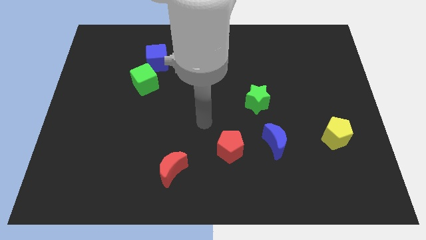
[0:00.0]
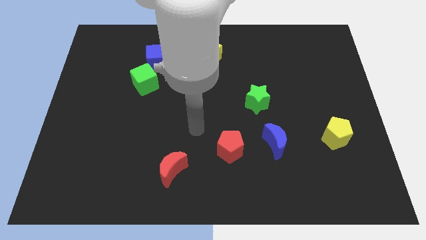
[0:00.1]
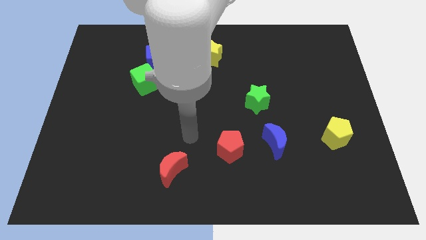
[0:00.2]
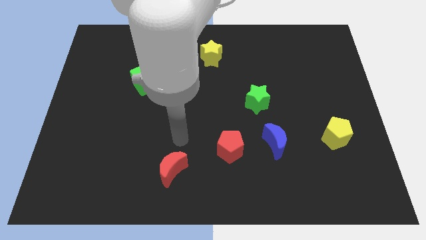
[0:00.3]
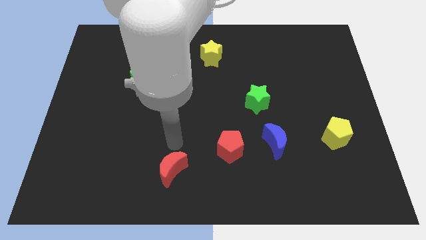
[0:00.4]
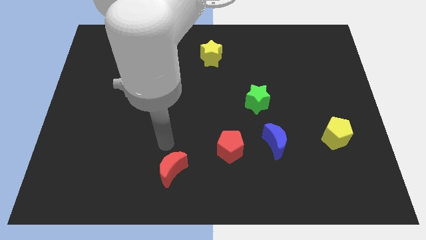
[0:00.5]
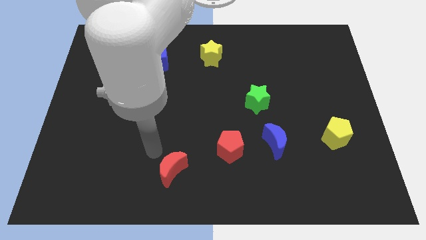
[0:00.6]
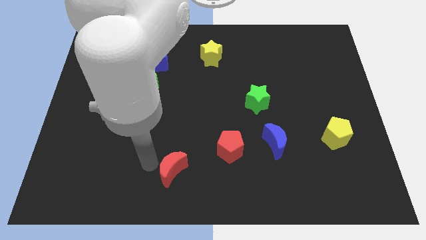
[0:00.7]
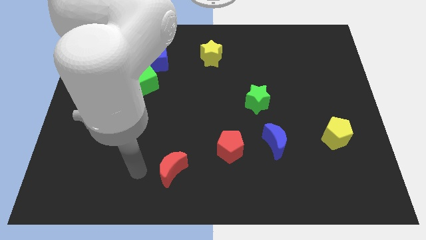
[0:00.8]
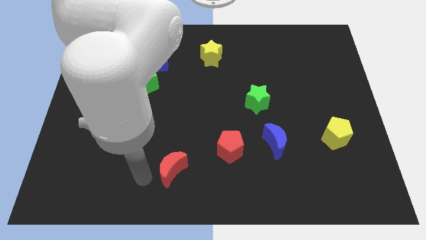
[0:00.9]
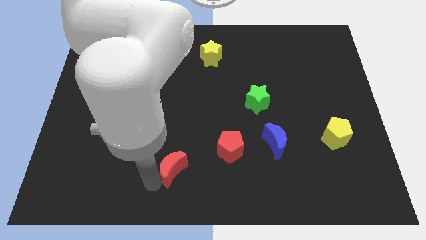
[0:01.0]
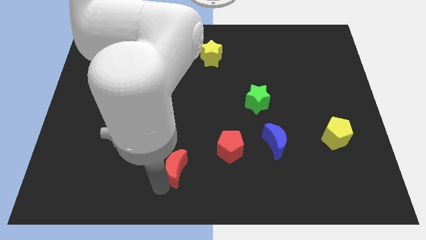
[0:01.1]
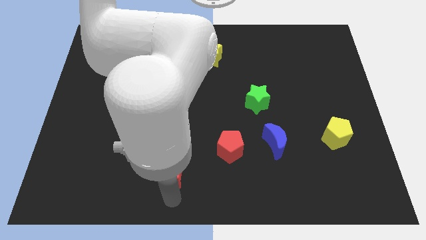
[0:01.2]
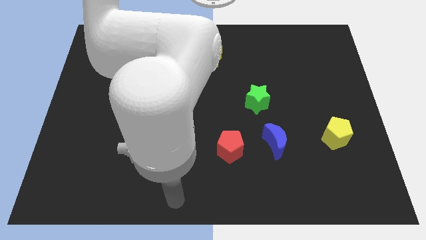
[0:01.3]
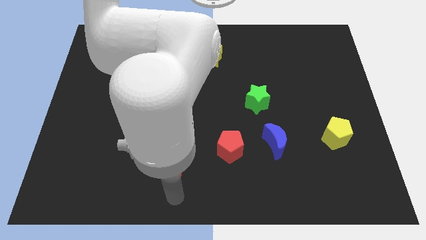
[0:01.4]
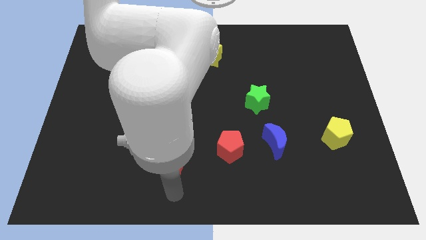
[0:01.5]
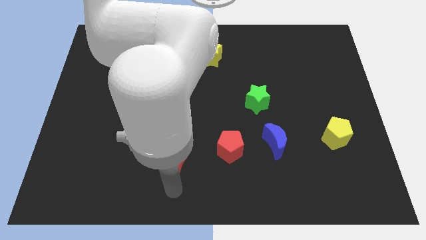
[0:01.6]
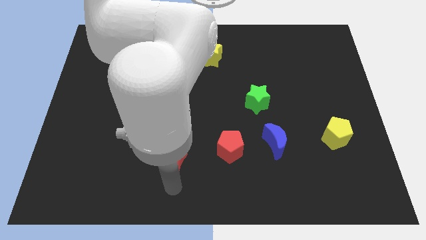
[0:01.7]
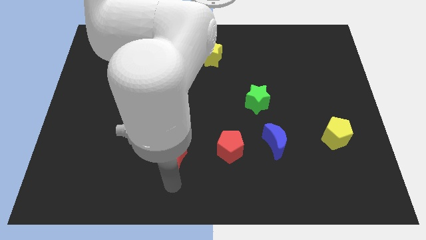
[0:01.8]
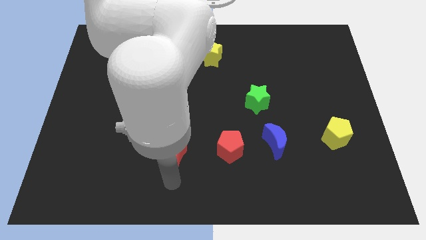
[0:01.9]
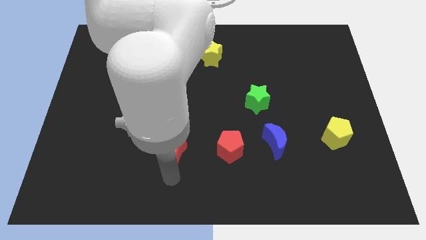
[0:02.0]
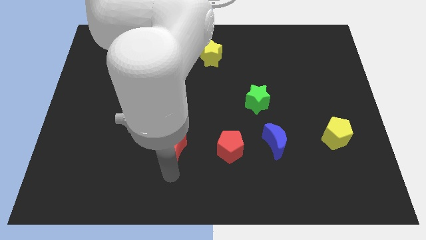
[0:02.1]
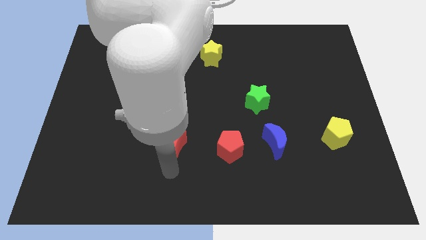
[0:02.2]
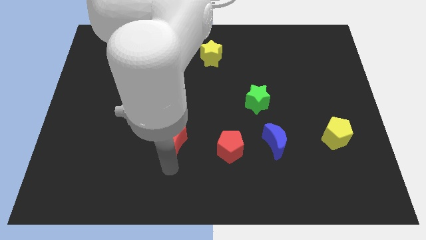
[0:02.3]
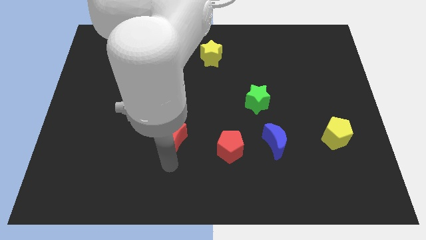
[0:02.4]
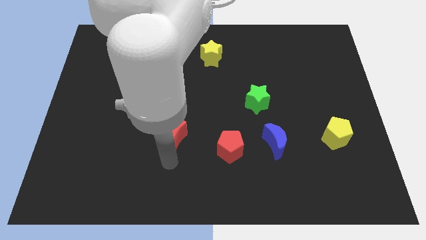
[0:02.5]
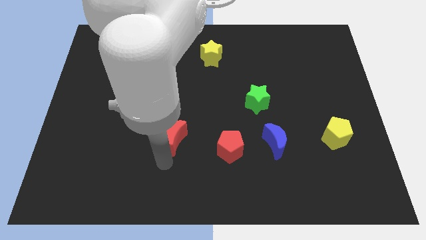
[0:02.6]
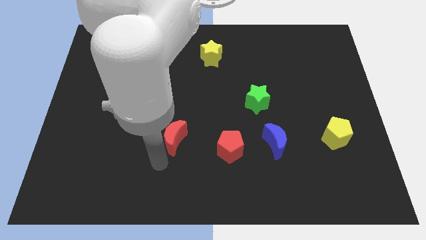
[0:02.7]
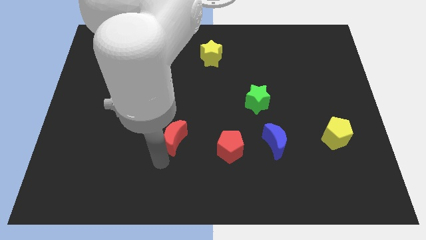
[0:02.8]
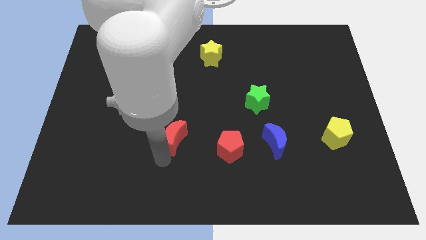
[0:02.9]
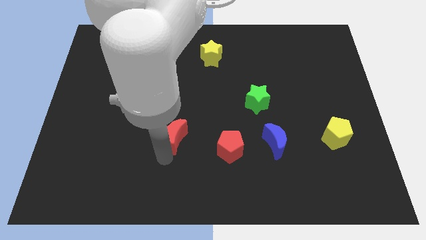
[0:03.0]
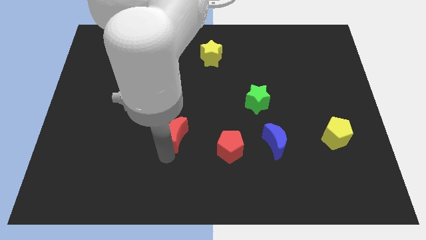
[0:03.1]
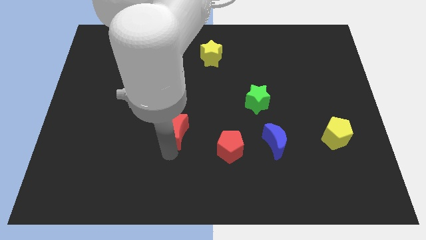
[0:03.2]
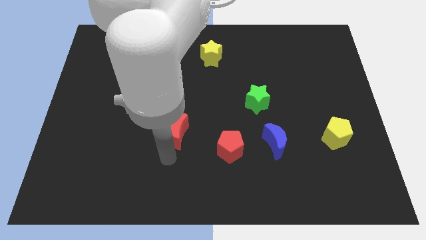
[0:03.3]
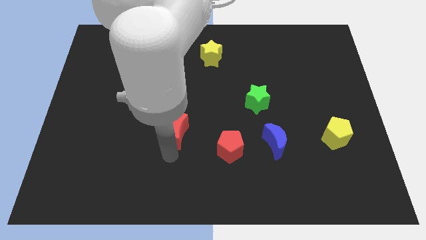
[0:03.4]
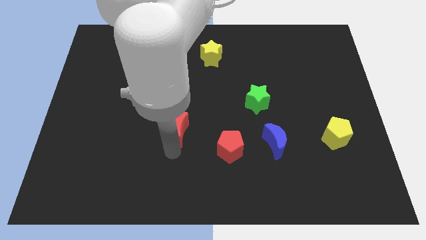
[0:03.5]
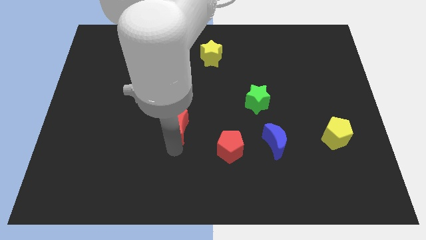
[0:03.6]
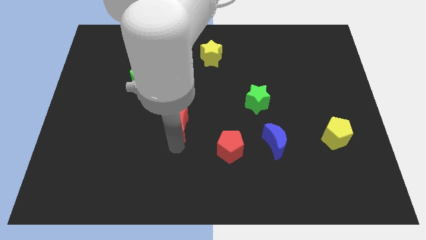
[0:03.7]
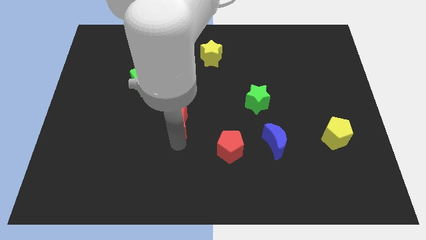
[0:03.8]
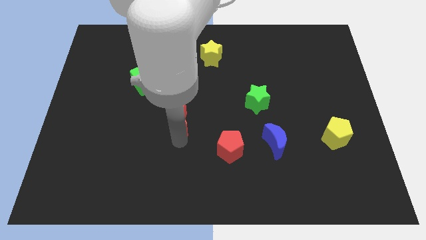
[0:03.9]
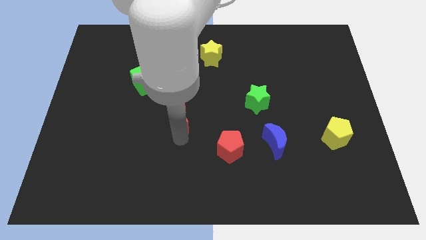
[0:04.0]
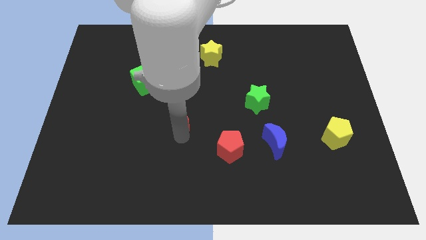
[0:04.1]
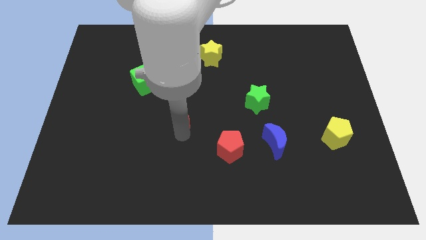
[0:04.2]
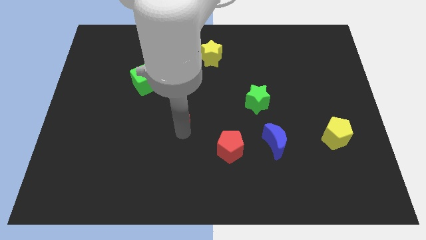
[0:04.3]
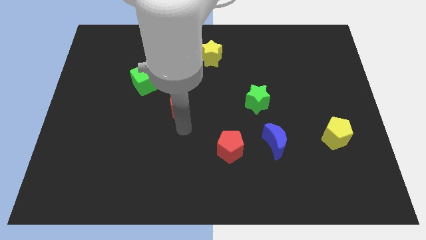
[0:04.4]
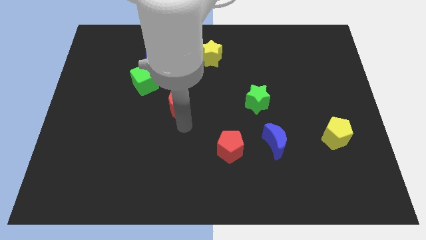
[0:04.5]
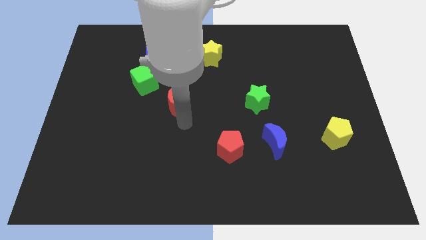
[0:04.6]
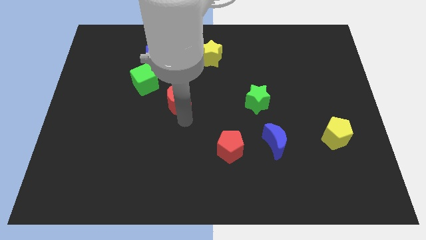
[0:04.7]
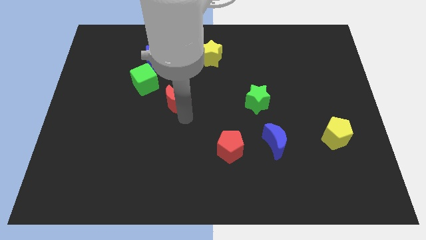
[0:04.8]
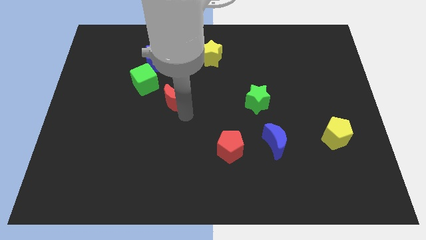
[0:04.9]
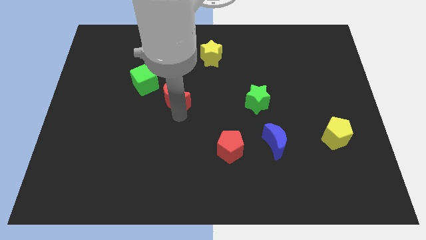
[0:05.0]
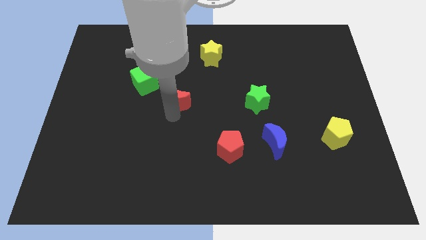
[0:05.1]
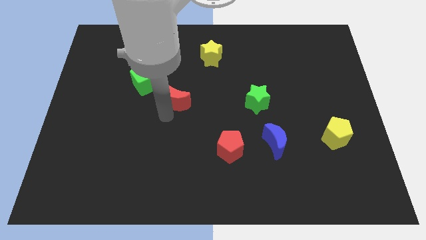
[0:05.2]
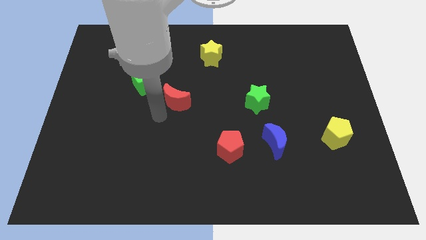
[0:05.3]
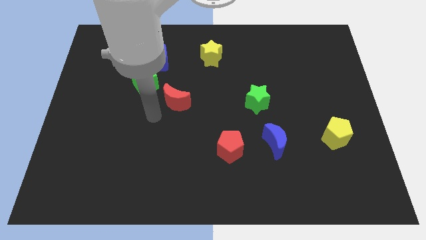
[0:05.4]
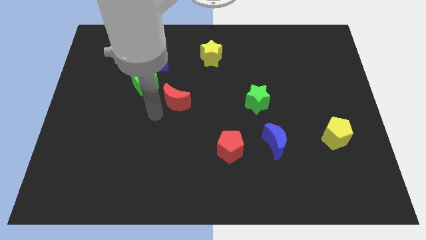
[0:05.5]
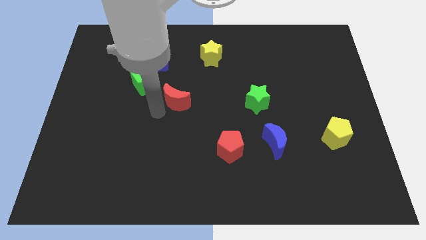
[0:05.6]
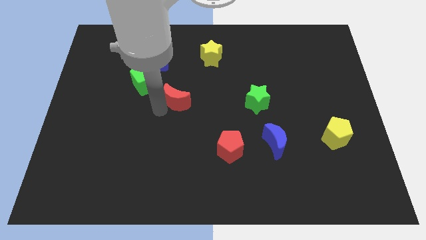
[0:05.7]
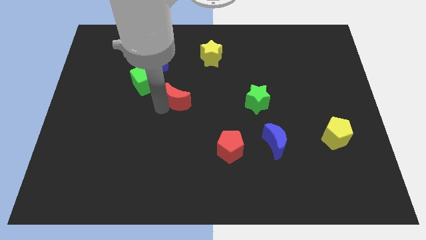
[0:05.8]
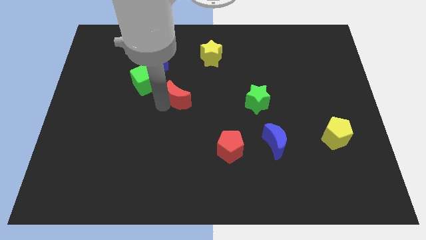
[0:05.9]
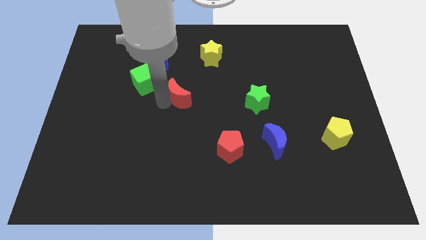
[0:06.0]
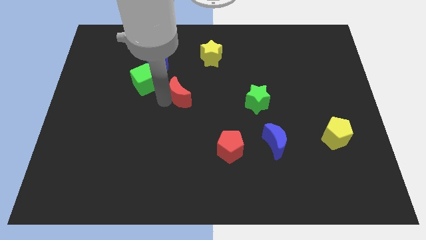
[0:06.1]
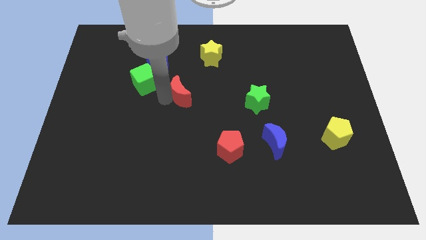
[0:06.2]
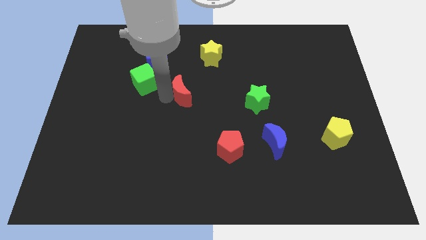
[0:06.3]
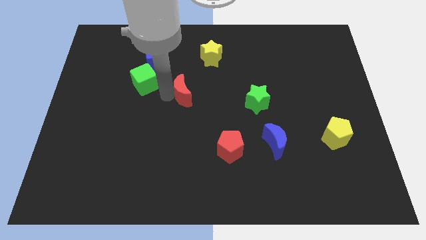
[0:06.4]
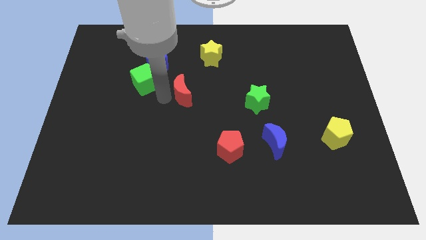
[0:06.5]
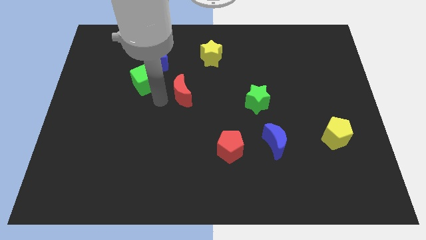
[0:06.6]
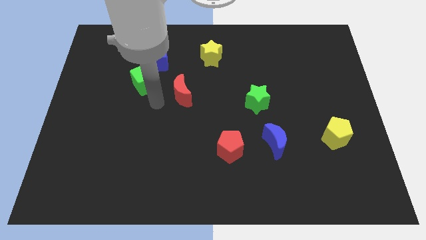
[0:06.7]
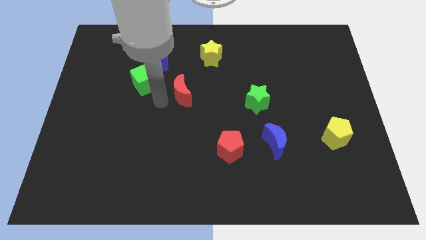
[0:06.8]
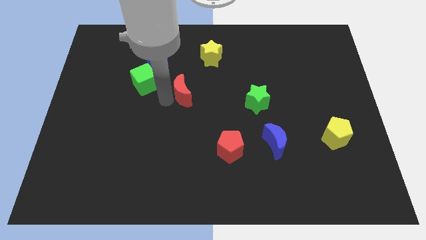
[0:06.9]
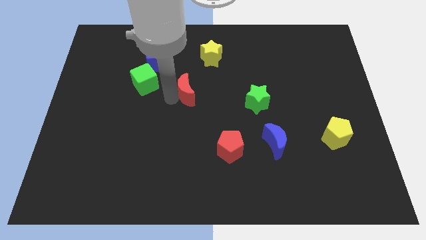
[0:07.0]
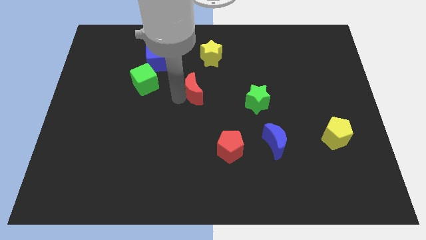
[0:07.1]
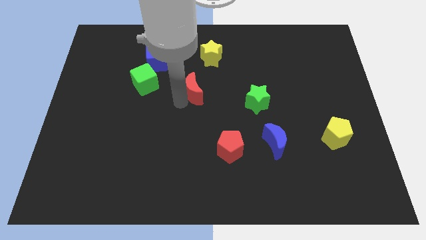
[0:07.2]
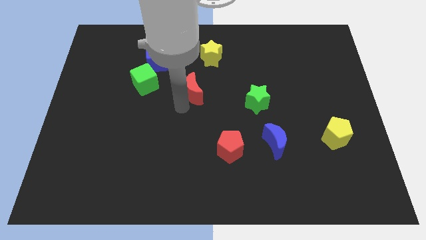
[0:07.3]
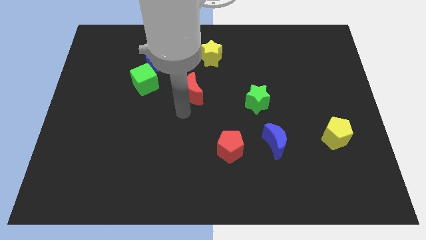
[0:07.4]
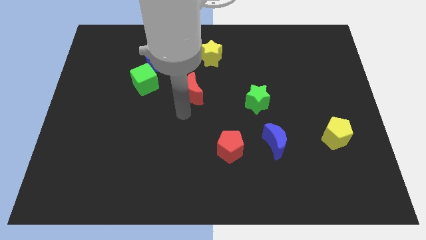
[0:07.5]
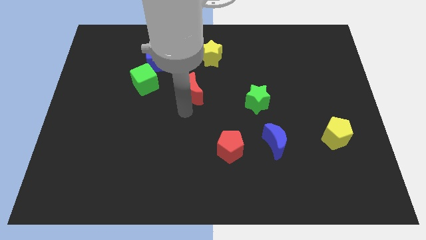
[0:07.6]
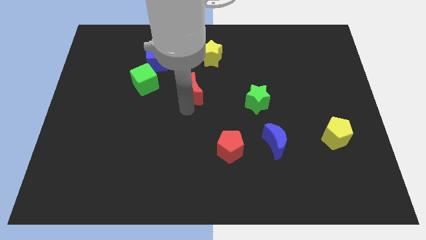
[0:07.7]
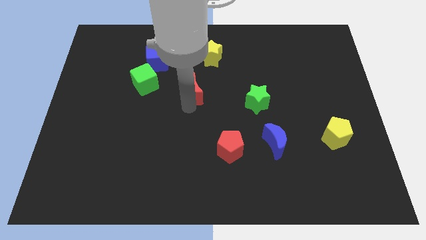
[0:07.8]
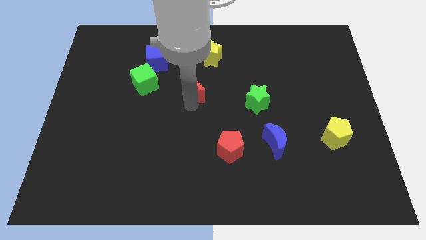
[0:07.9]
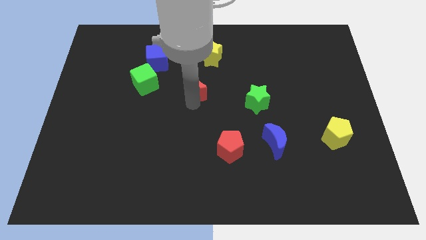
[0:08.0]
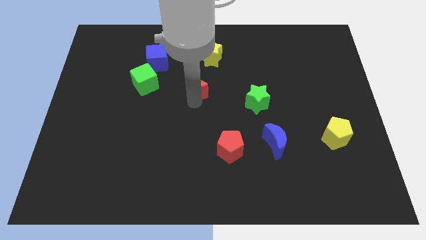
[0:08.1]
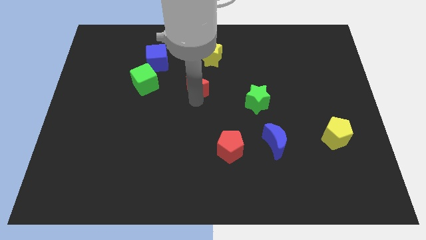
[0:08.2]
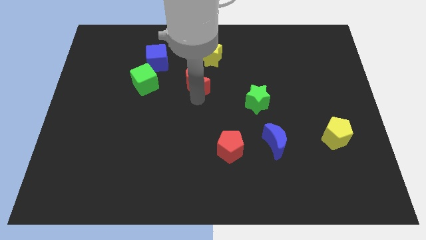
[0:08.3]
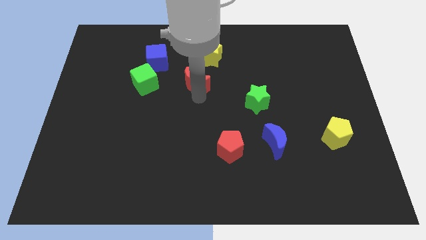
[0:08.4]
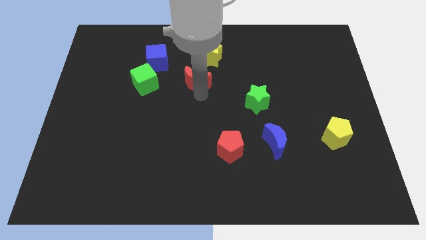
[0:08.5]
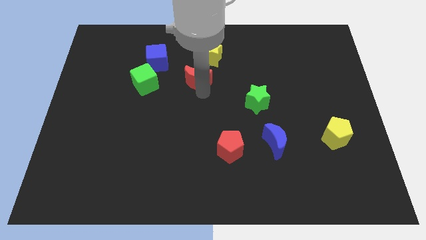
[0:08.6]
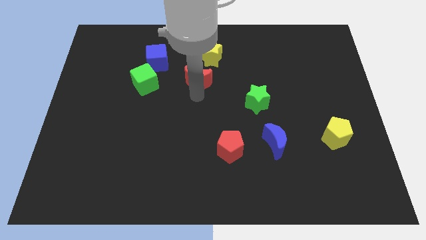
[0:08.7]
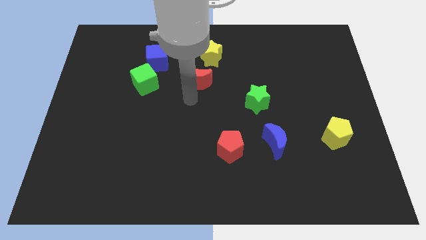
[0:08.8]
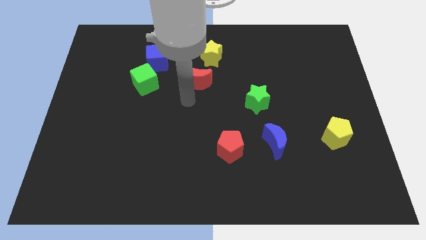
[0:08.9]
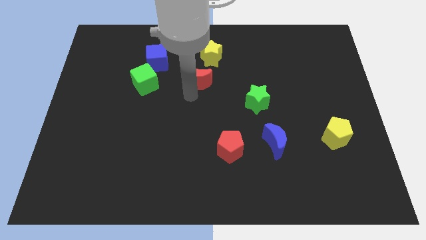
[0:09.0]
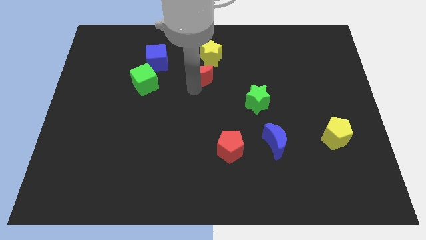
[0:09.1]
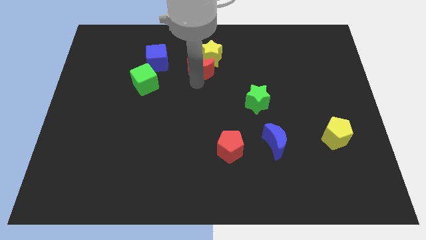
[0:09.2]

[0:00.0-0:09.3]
slide the red moon next to the yellow star
